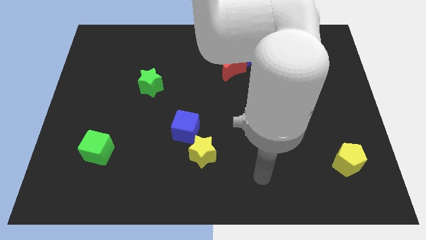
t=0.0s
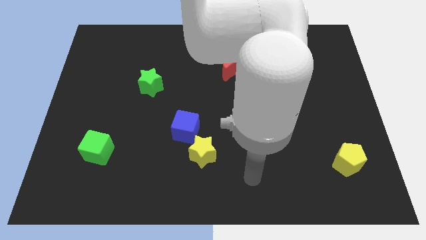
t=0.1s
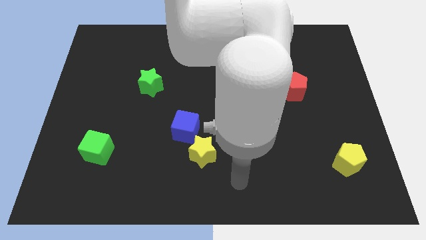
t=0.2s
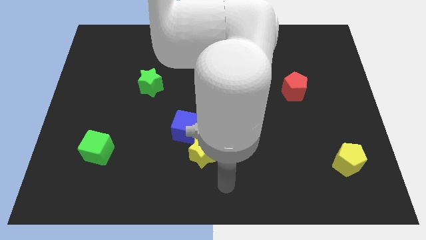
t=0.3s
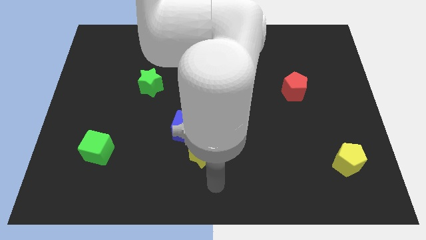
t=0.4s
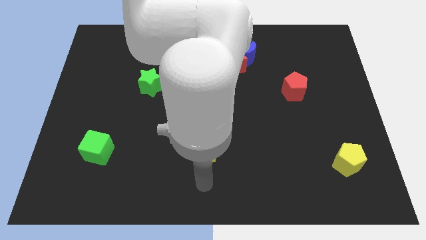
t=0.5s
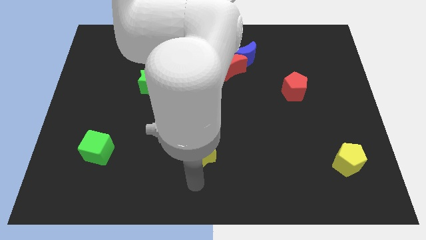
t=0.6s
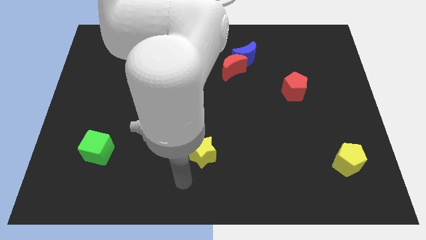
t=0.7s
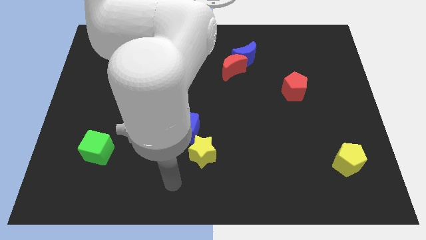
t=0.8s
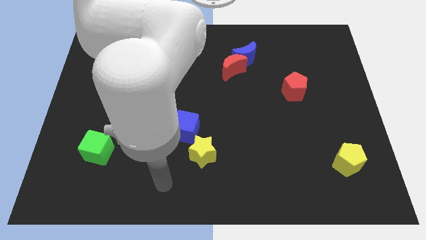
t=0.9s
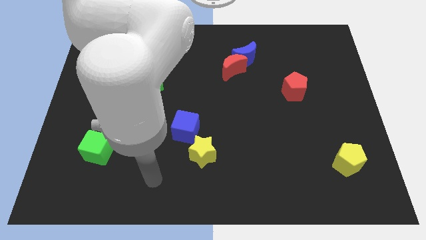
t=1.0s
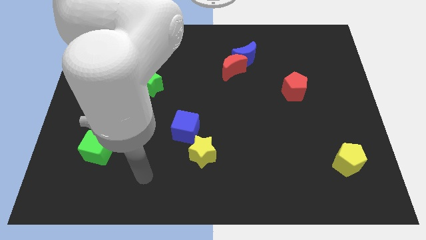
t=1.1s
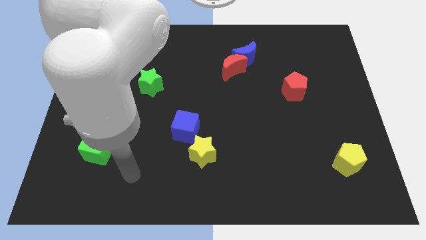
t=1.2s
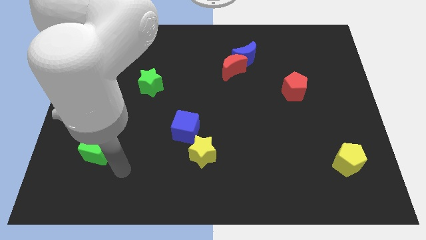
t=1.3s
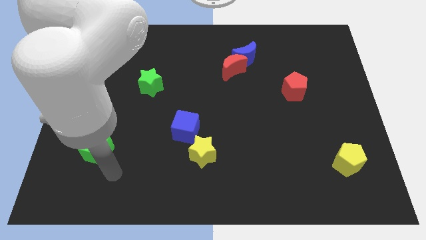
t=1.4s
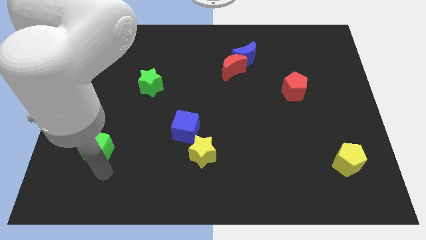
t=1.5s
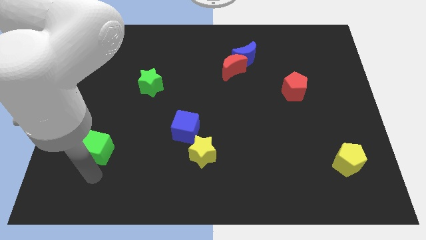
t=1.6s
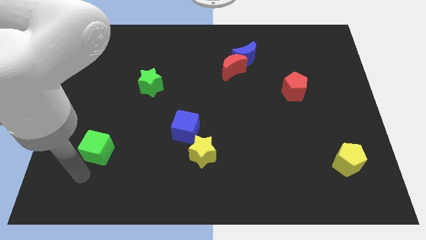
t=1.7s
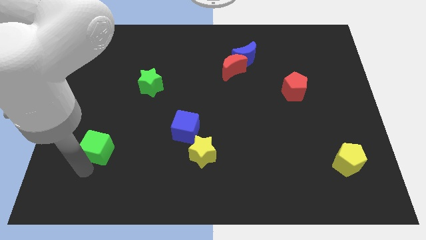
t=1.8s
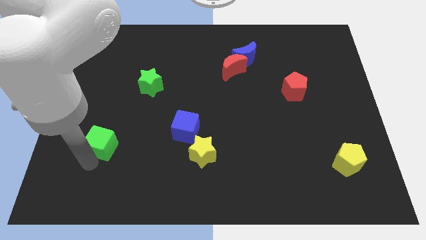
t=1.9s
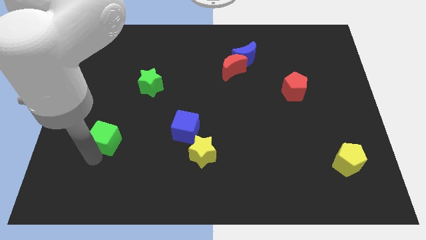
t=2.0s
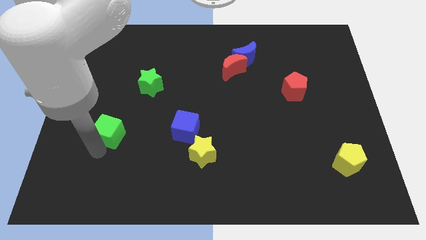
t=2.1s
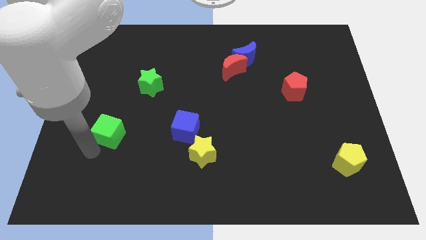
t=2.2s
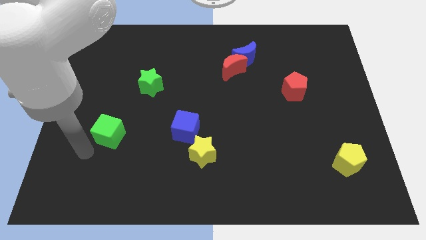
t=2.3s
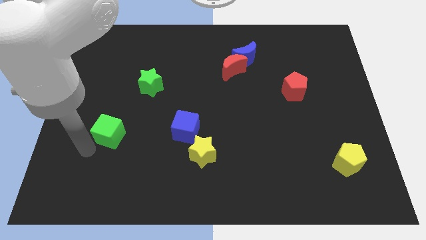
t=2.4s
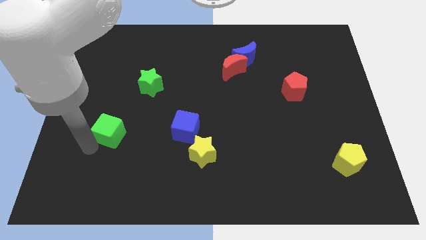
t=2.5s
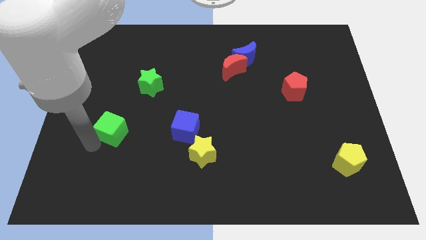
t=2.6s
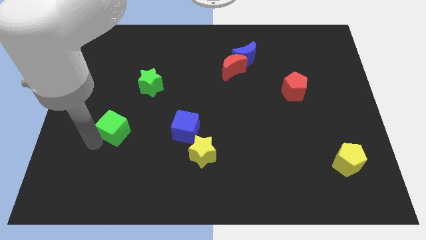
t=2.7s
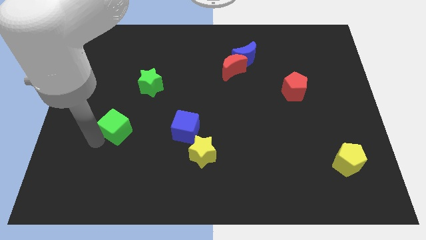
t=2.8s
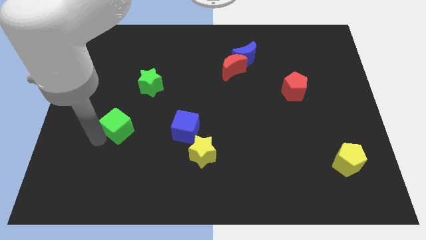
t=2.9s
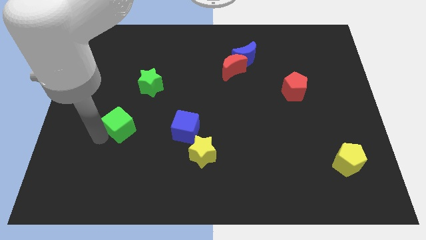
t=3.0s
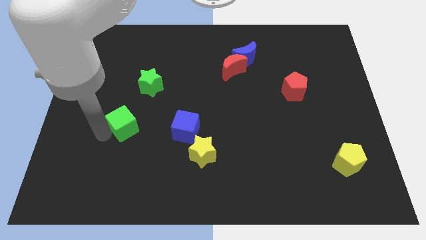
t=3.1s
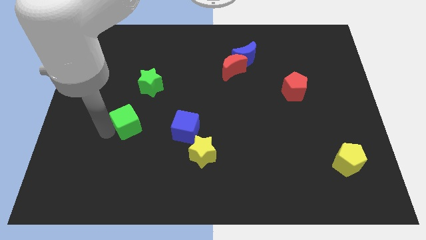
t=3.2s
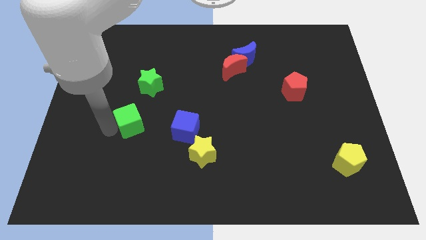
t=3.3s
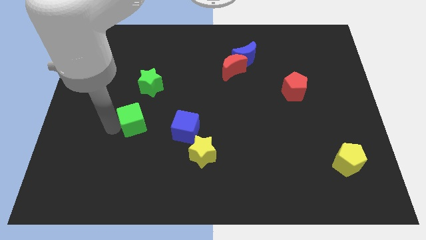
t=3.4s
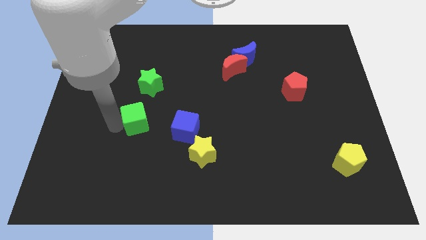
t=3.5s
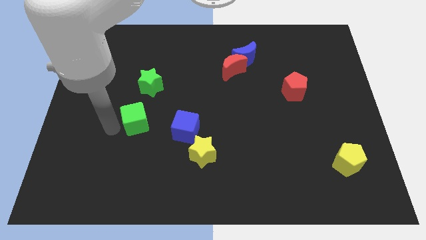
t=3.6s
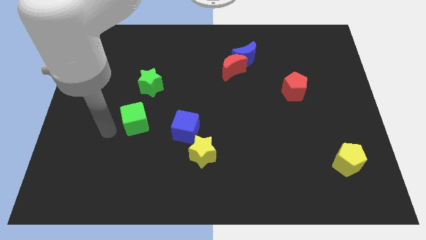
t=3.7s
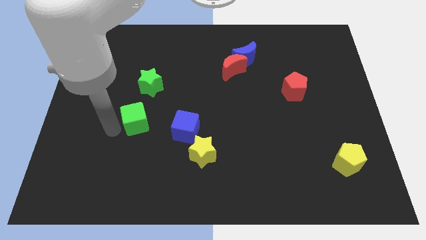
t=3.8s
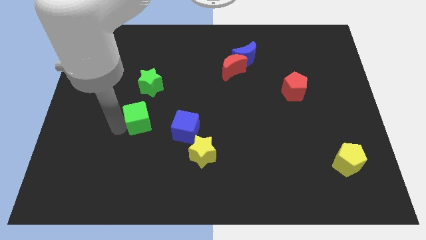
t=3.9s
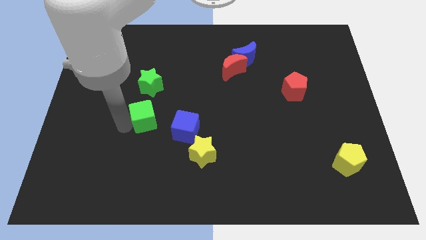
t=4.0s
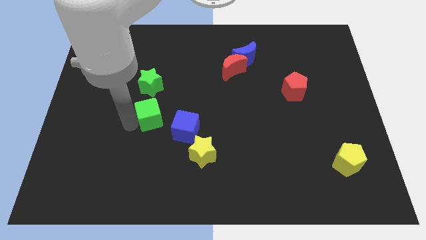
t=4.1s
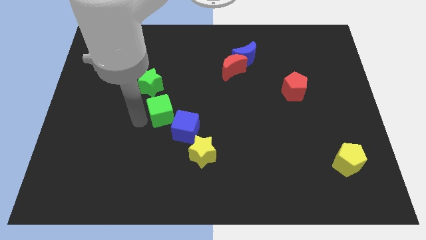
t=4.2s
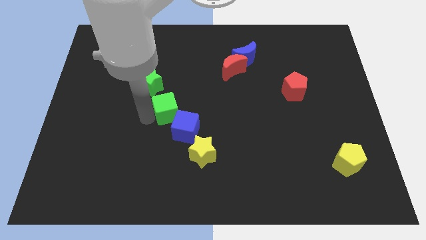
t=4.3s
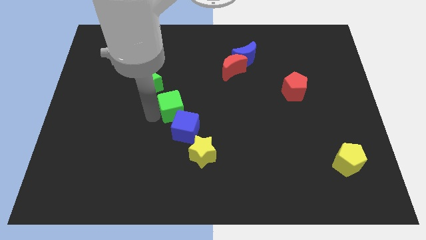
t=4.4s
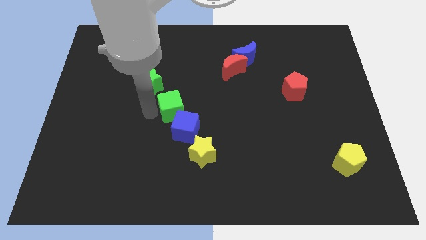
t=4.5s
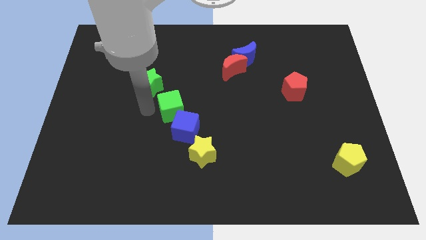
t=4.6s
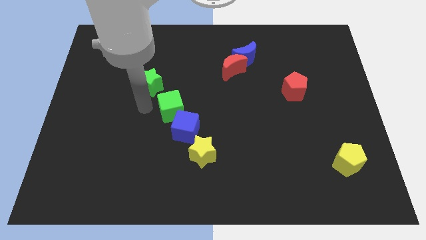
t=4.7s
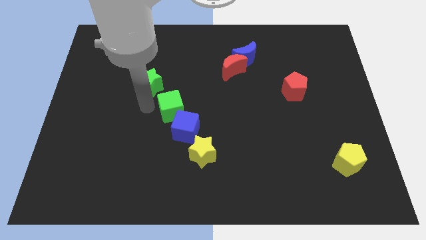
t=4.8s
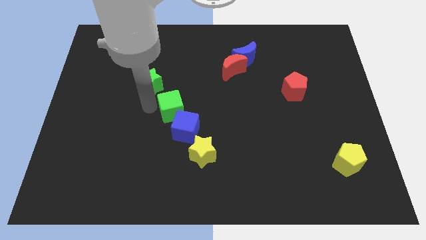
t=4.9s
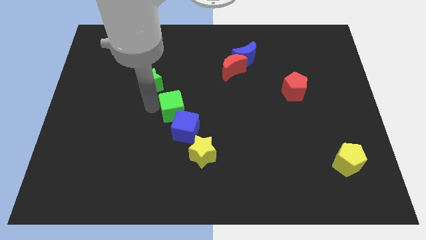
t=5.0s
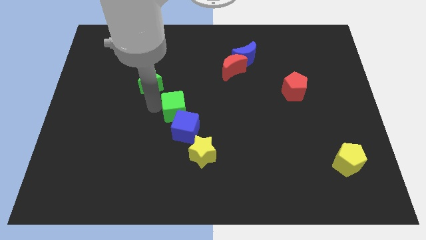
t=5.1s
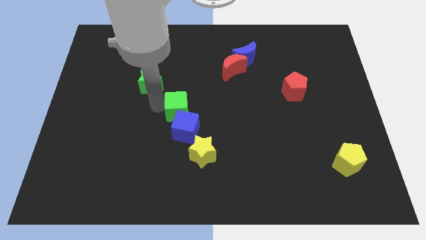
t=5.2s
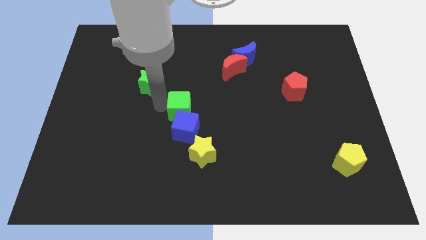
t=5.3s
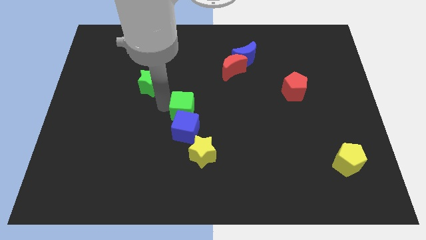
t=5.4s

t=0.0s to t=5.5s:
slide the green cube to the top of the yellow star
